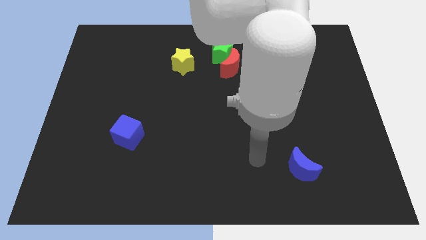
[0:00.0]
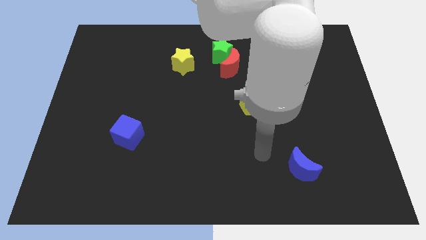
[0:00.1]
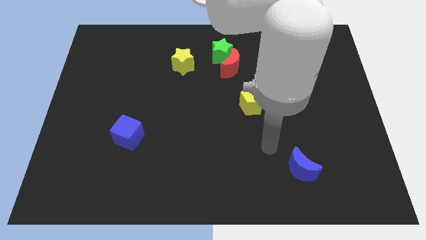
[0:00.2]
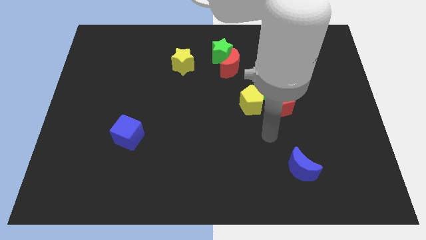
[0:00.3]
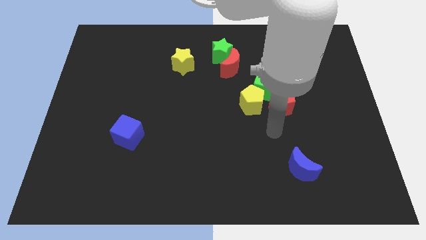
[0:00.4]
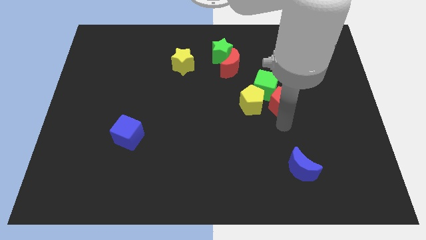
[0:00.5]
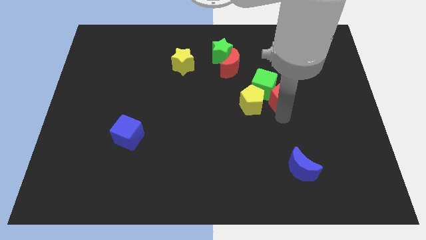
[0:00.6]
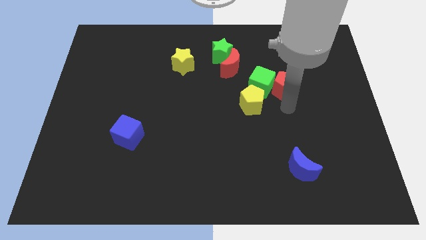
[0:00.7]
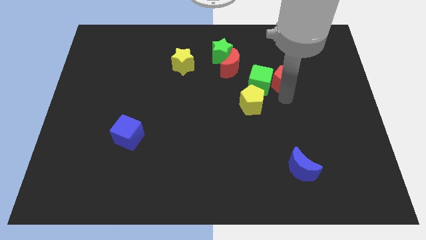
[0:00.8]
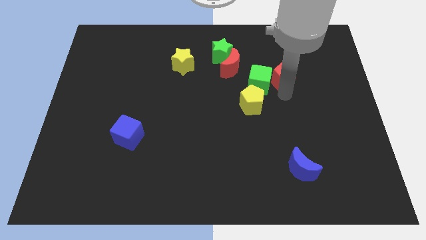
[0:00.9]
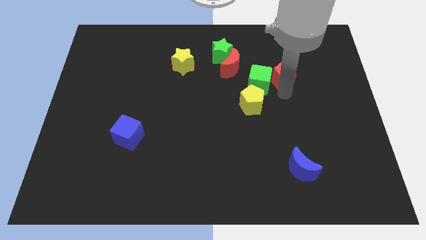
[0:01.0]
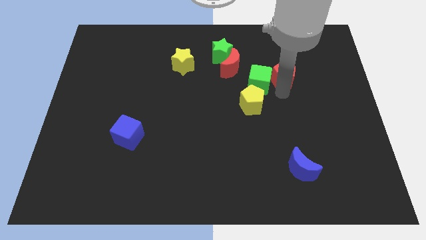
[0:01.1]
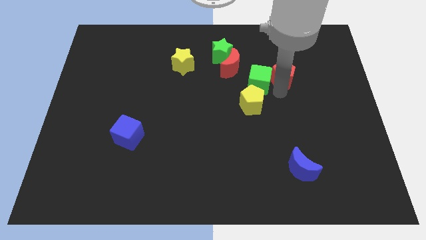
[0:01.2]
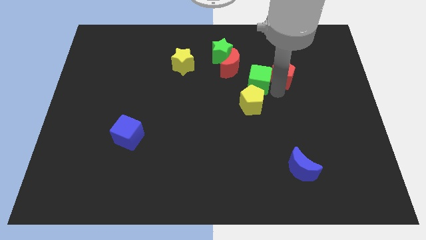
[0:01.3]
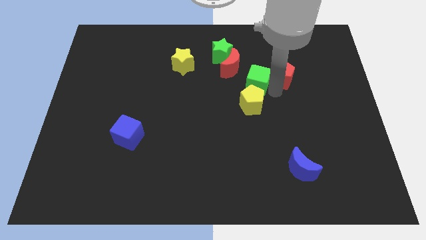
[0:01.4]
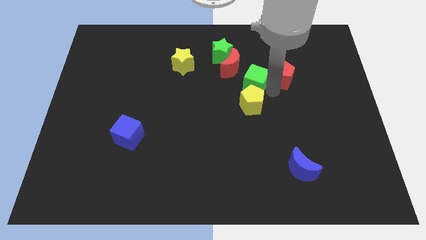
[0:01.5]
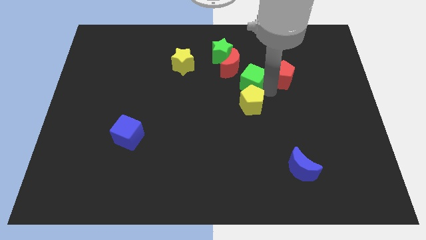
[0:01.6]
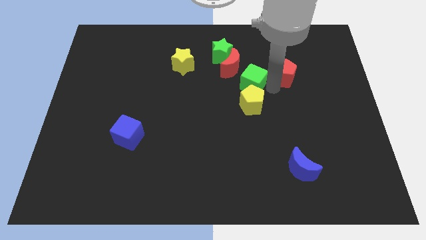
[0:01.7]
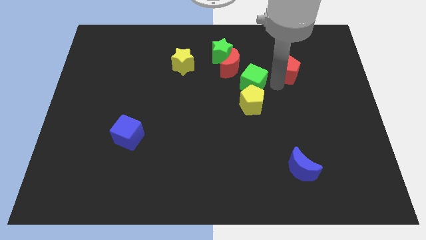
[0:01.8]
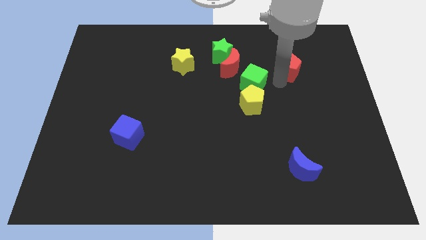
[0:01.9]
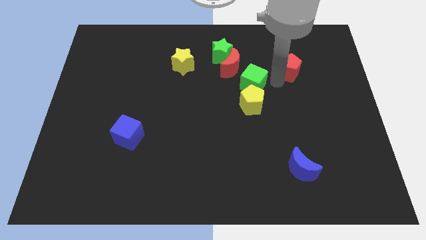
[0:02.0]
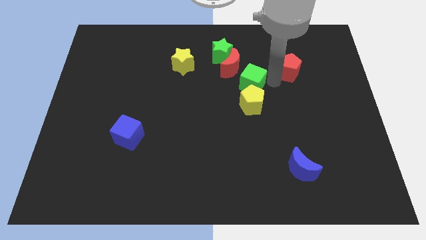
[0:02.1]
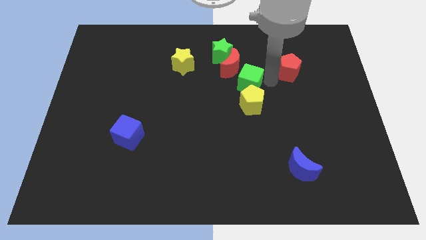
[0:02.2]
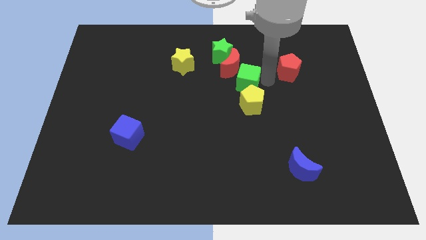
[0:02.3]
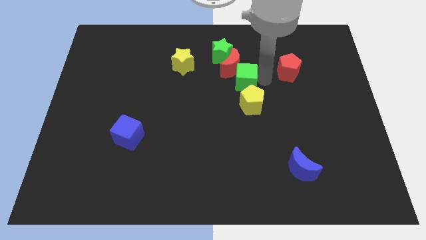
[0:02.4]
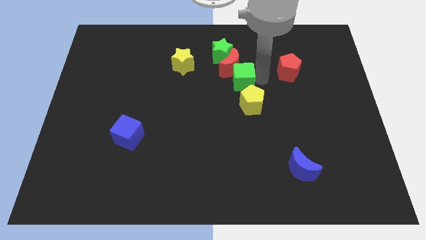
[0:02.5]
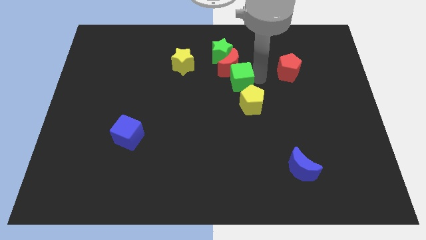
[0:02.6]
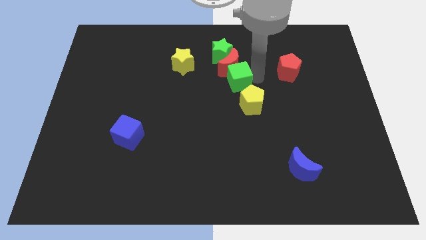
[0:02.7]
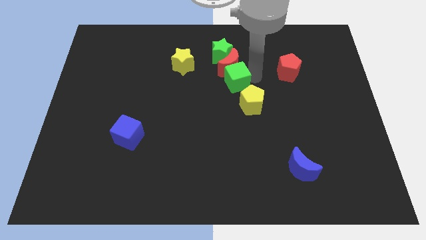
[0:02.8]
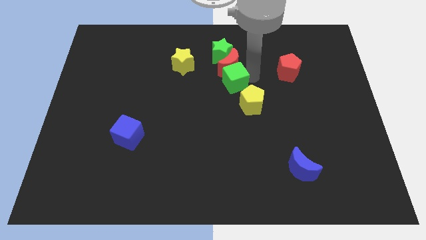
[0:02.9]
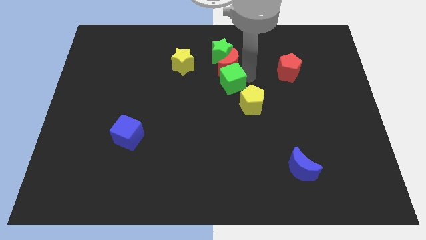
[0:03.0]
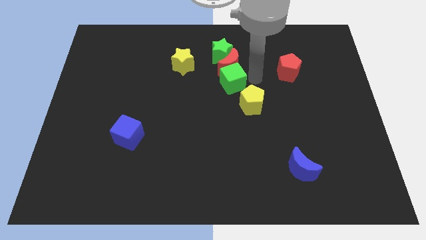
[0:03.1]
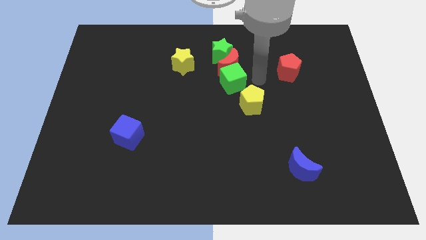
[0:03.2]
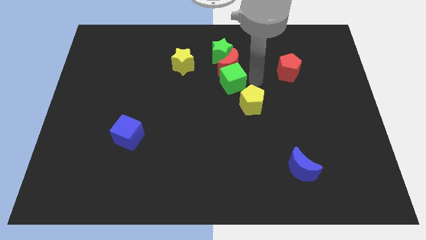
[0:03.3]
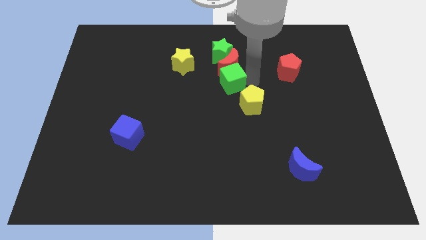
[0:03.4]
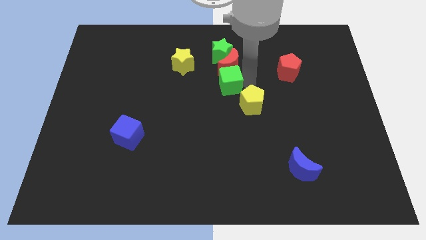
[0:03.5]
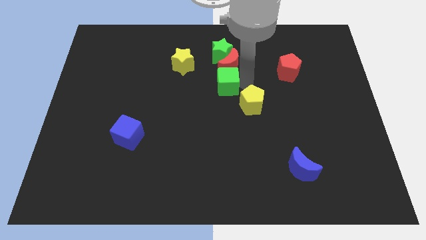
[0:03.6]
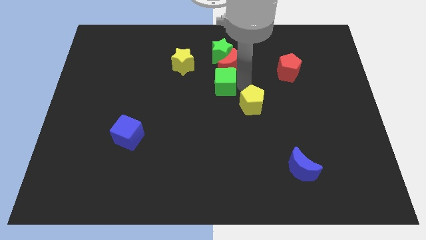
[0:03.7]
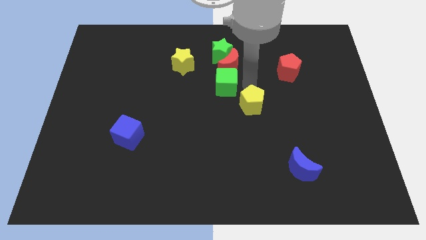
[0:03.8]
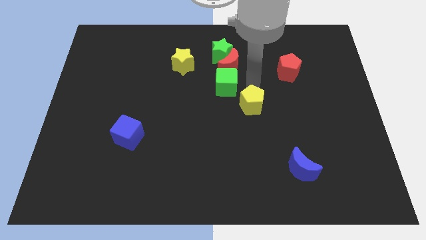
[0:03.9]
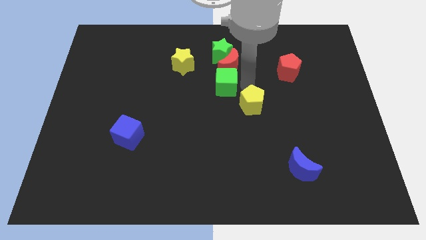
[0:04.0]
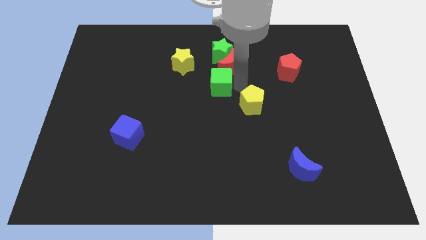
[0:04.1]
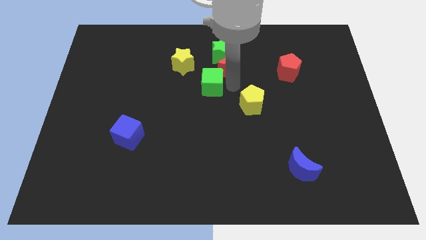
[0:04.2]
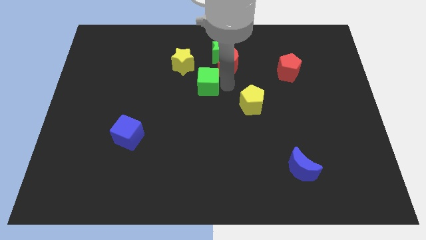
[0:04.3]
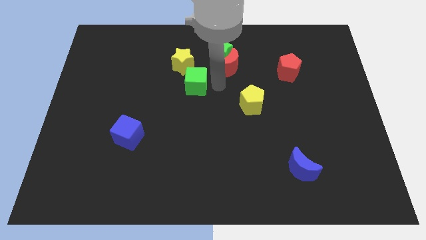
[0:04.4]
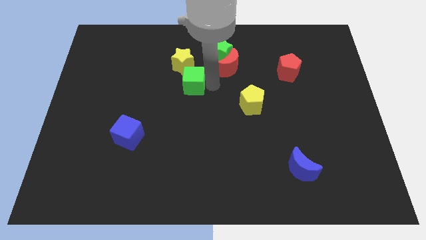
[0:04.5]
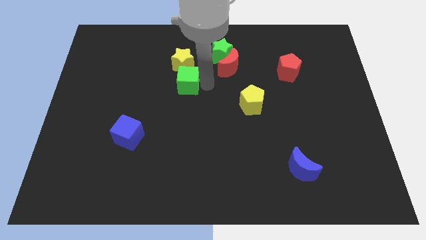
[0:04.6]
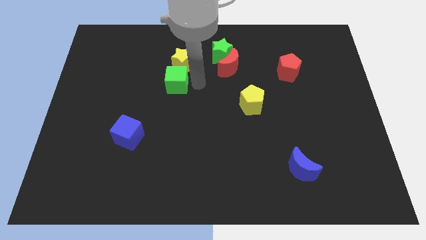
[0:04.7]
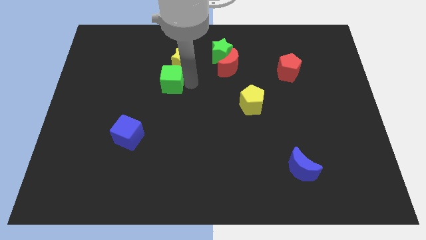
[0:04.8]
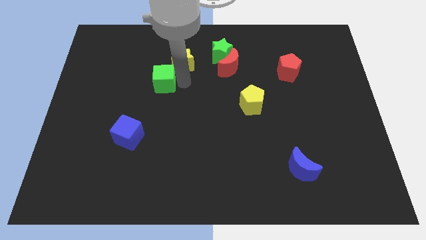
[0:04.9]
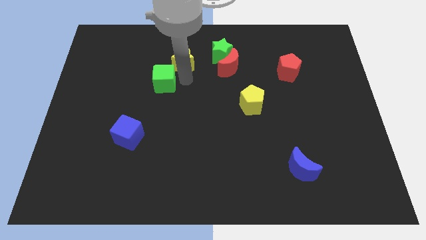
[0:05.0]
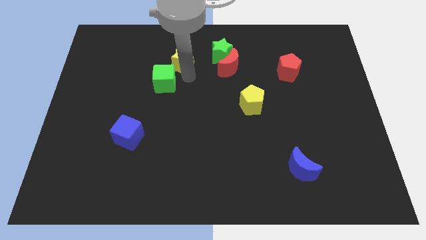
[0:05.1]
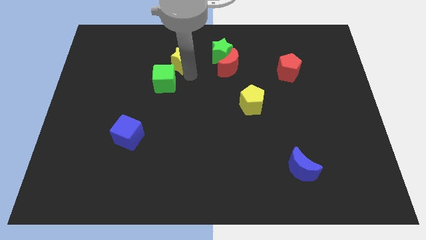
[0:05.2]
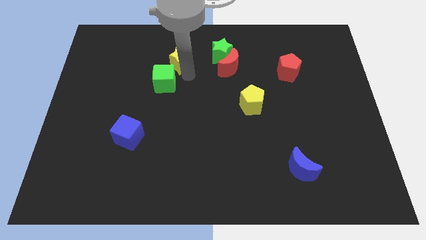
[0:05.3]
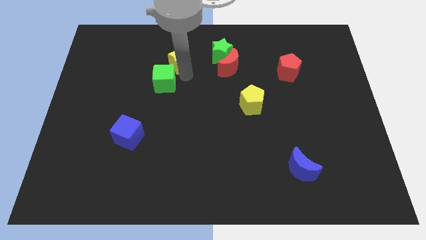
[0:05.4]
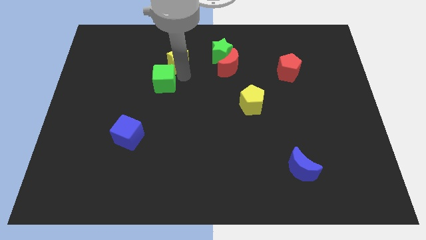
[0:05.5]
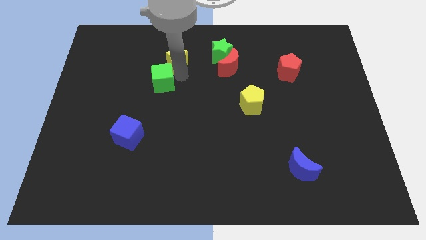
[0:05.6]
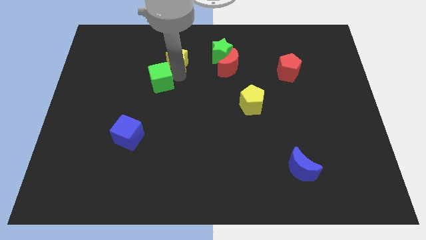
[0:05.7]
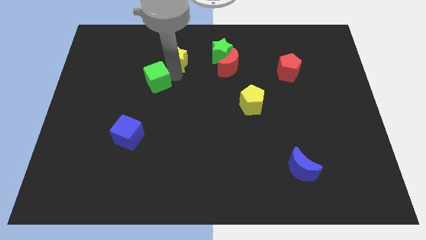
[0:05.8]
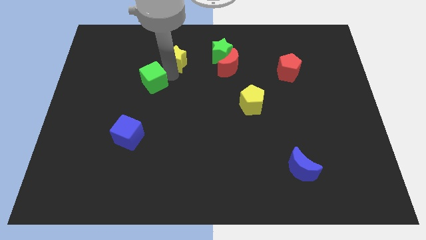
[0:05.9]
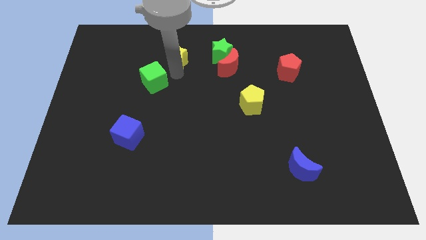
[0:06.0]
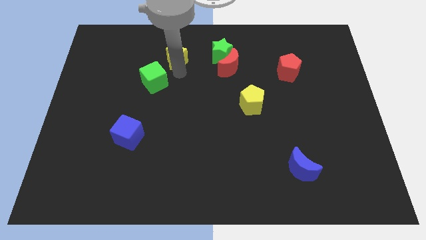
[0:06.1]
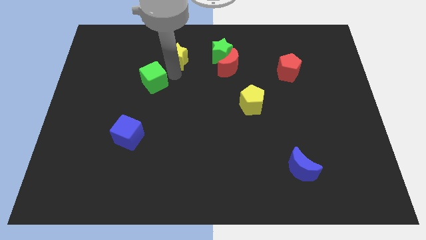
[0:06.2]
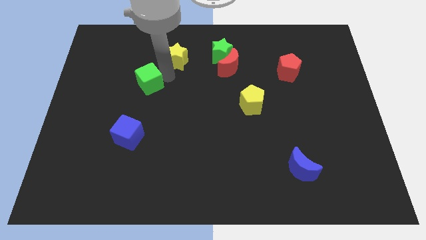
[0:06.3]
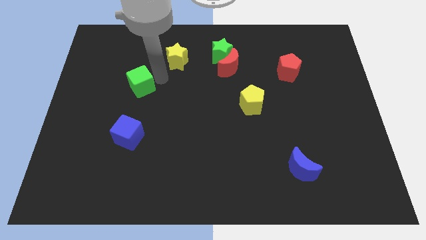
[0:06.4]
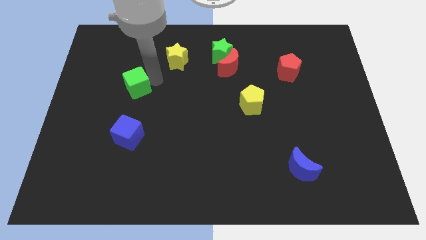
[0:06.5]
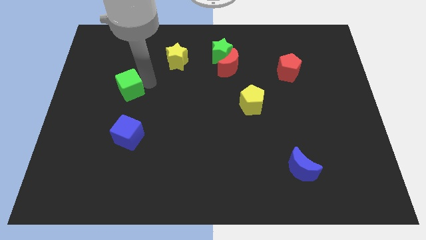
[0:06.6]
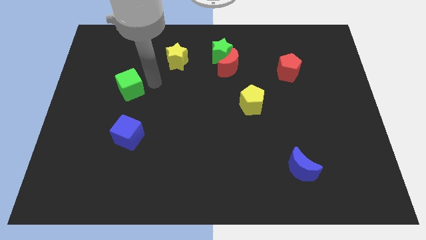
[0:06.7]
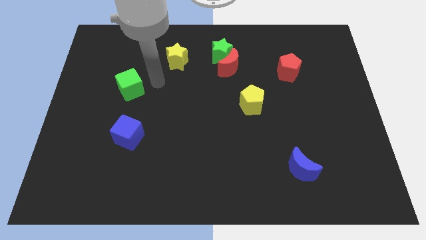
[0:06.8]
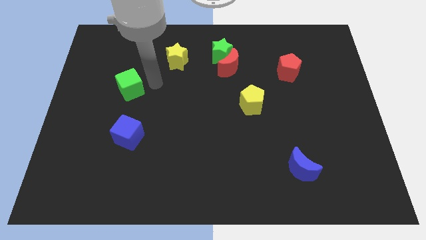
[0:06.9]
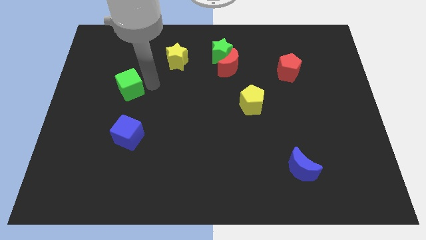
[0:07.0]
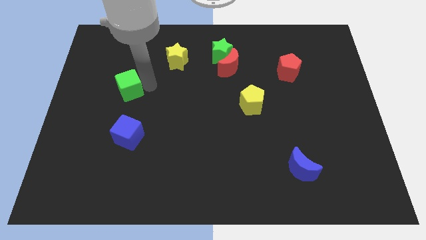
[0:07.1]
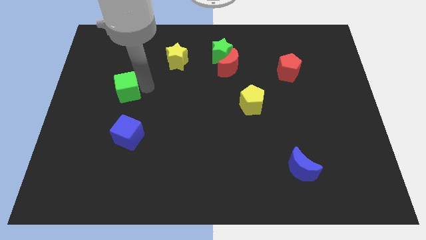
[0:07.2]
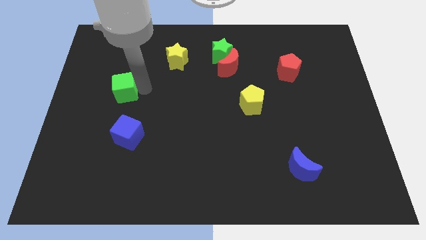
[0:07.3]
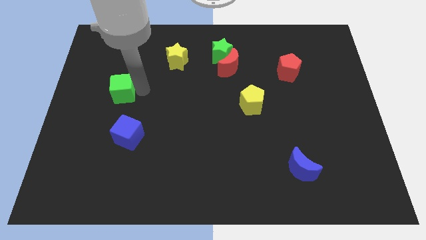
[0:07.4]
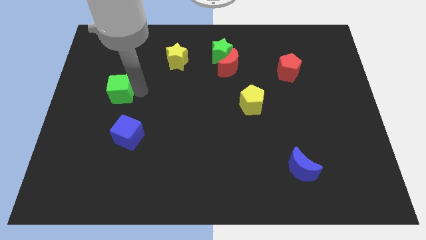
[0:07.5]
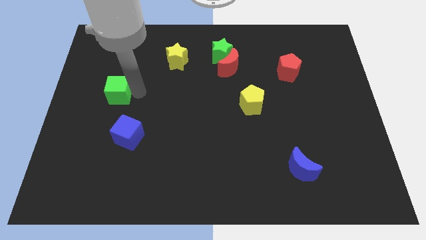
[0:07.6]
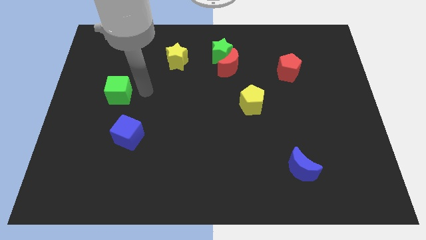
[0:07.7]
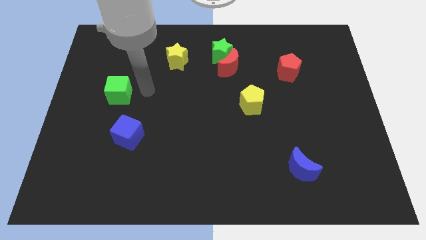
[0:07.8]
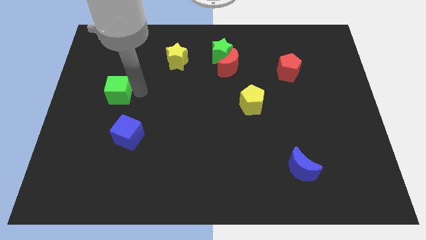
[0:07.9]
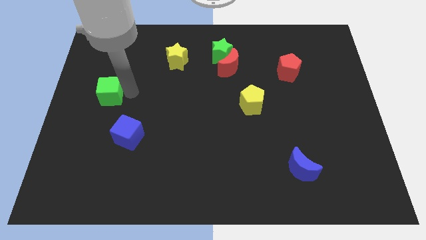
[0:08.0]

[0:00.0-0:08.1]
slide the green cube to the left side of the board
